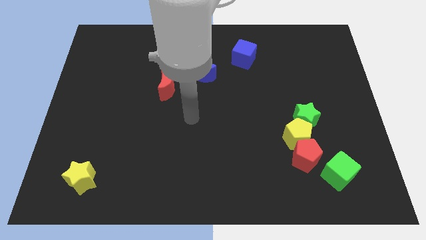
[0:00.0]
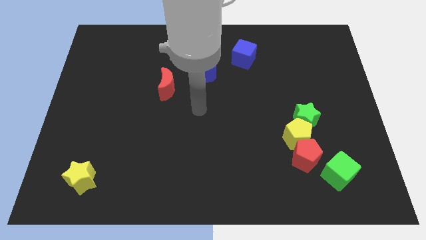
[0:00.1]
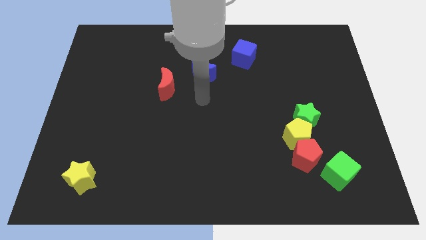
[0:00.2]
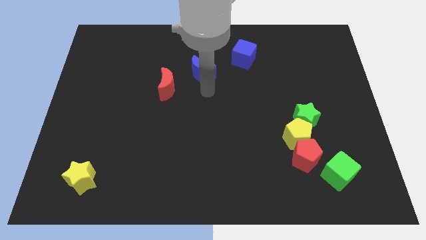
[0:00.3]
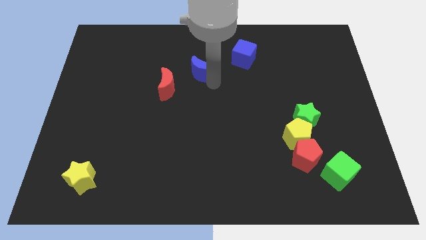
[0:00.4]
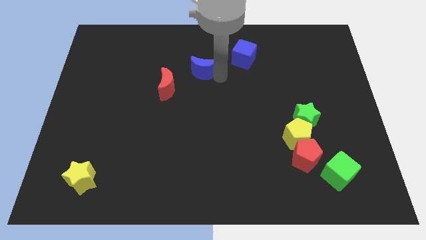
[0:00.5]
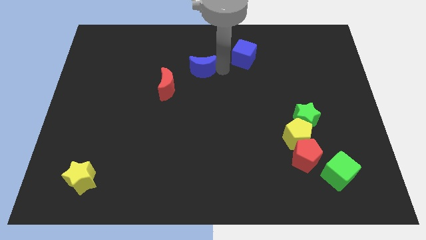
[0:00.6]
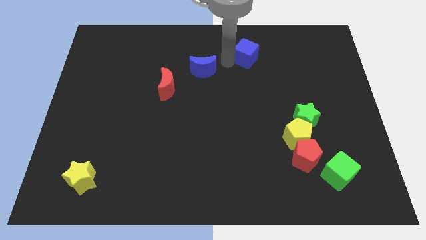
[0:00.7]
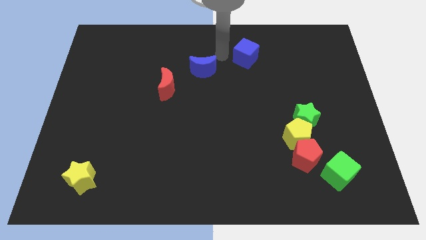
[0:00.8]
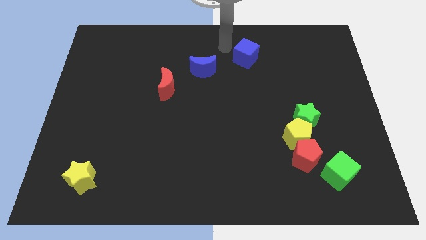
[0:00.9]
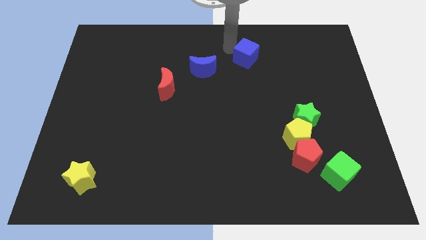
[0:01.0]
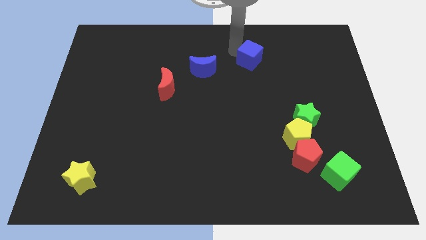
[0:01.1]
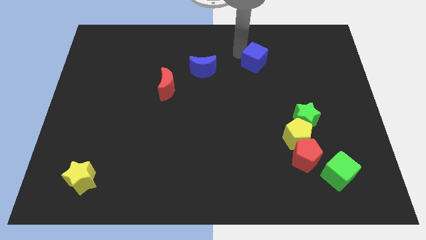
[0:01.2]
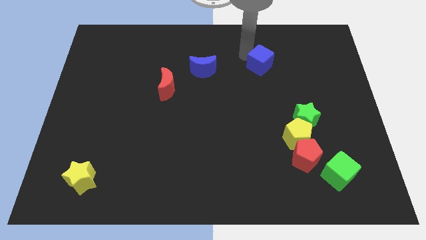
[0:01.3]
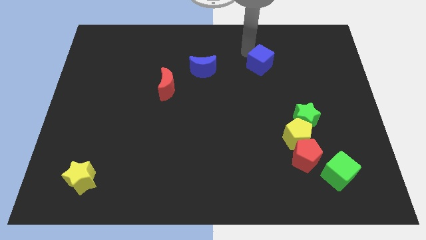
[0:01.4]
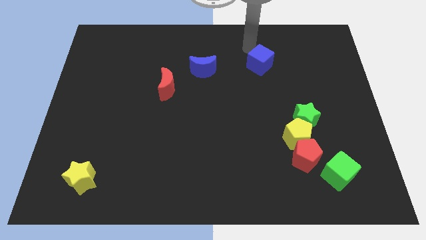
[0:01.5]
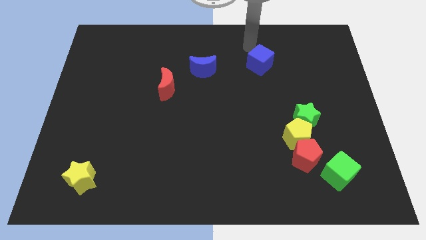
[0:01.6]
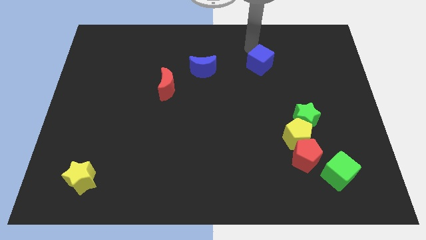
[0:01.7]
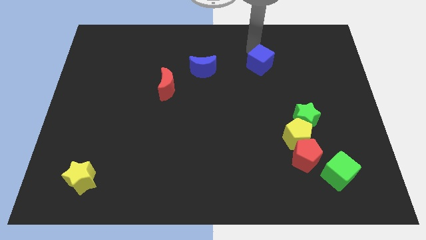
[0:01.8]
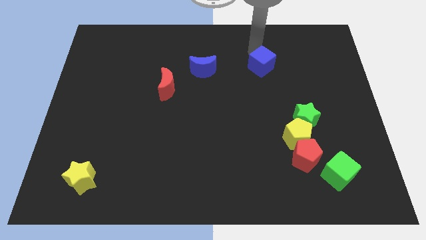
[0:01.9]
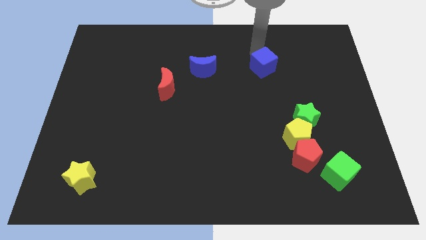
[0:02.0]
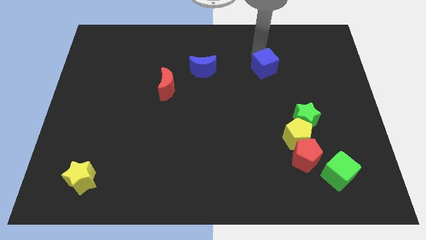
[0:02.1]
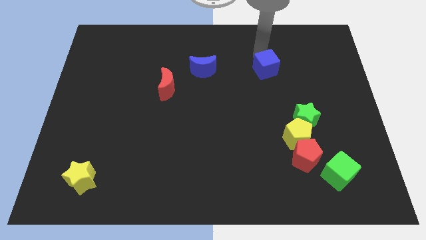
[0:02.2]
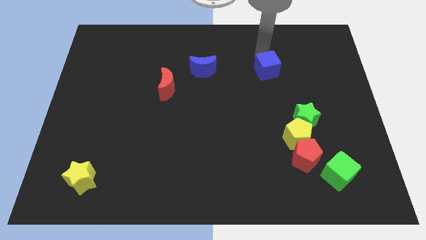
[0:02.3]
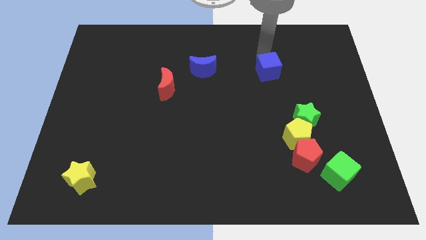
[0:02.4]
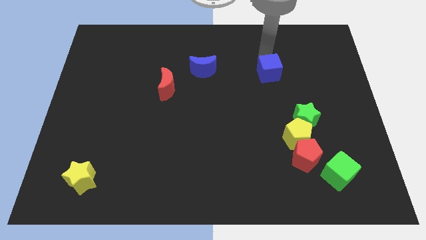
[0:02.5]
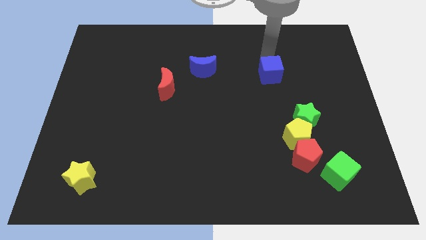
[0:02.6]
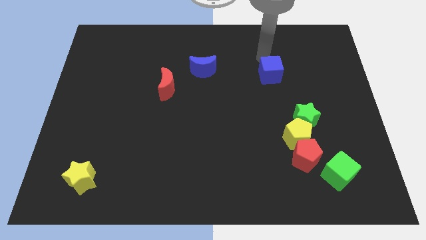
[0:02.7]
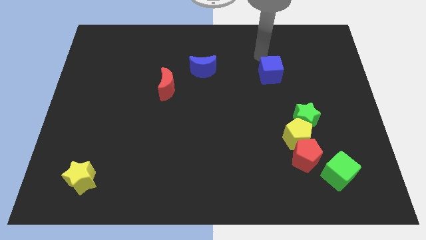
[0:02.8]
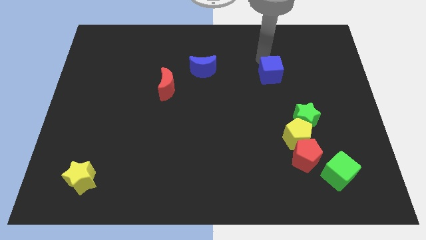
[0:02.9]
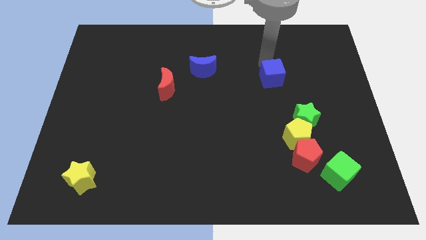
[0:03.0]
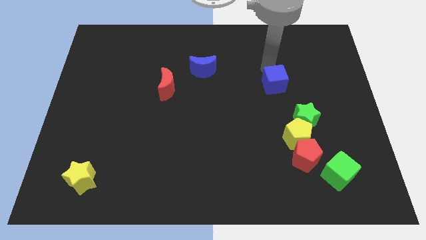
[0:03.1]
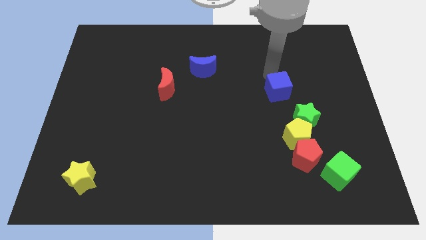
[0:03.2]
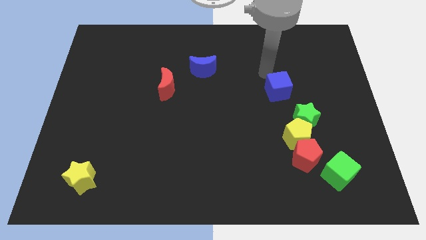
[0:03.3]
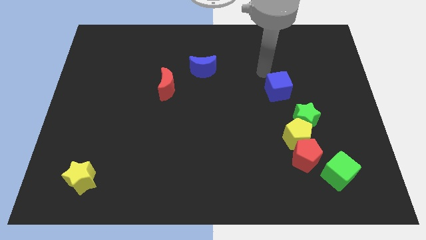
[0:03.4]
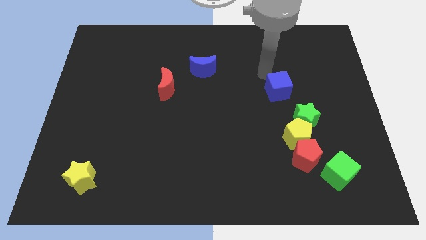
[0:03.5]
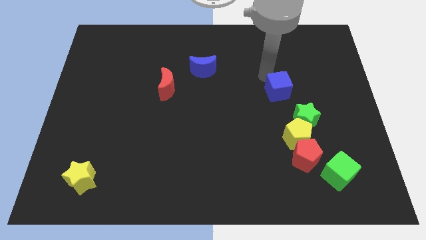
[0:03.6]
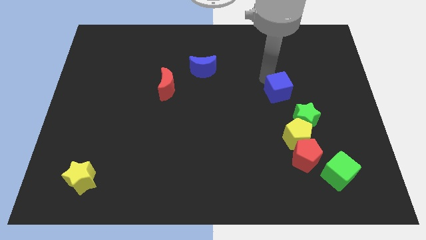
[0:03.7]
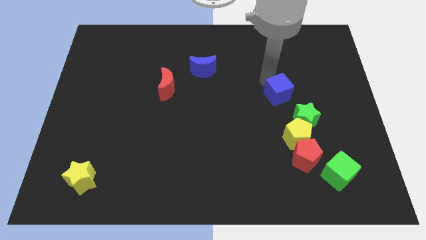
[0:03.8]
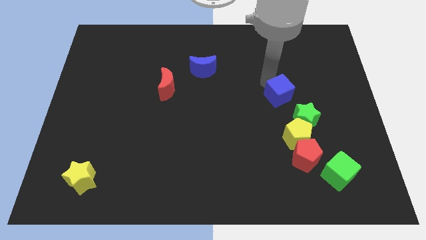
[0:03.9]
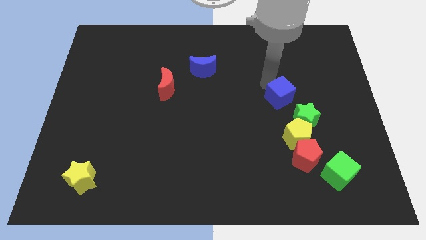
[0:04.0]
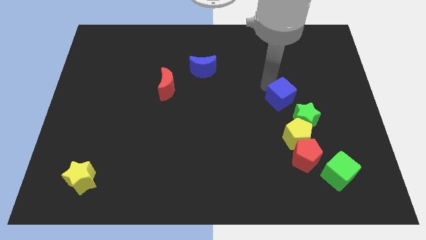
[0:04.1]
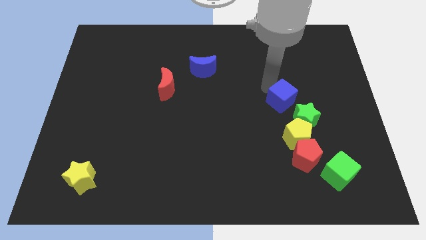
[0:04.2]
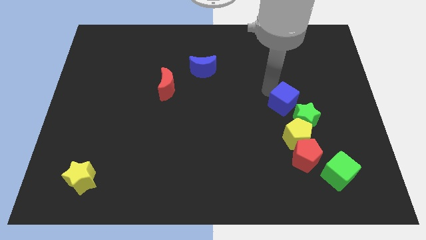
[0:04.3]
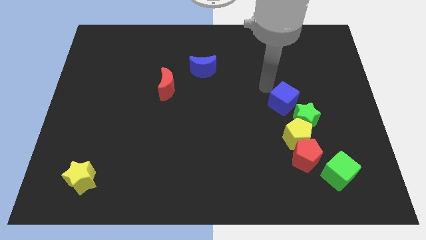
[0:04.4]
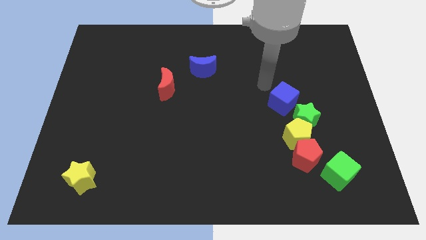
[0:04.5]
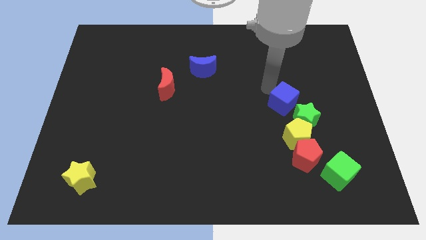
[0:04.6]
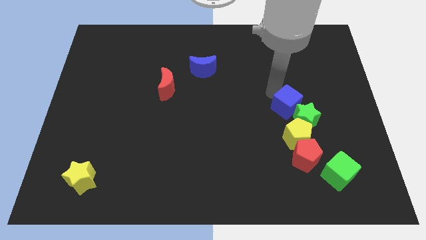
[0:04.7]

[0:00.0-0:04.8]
put the blue cube next to the green star

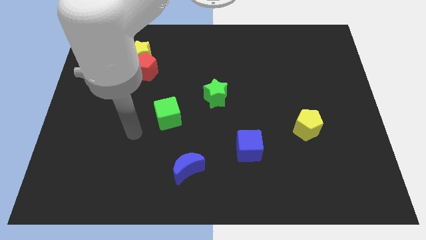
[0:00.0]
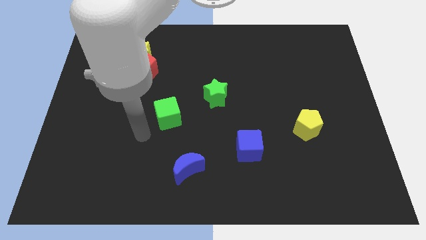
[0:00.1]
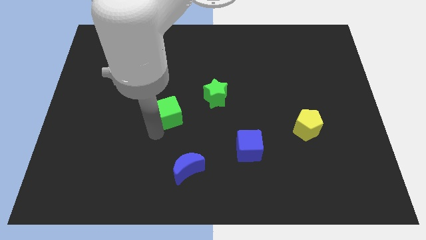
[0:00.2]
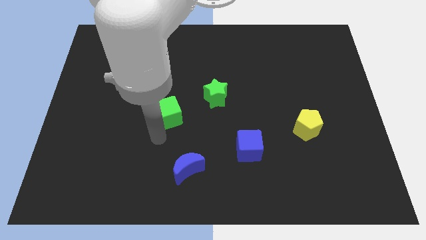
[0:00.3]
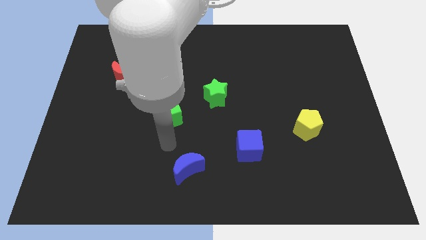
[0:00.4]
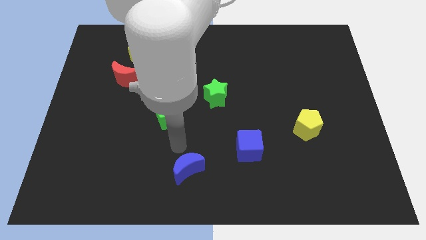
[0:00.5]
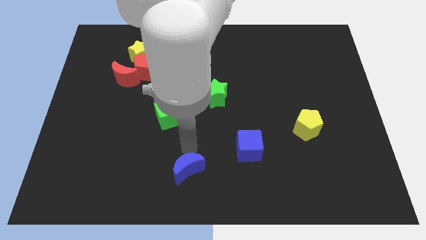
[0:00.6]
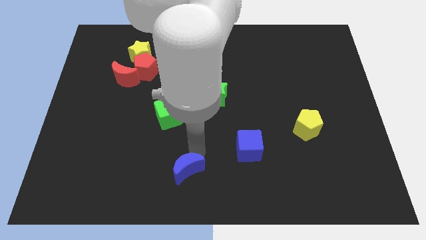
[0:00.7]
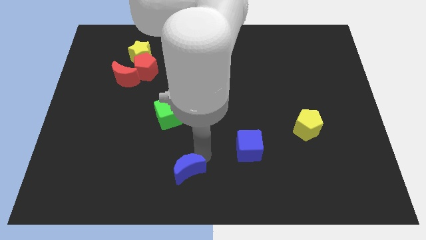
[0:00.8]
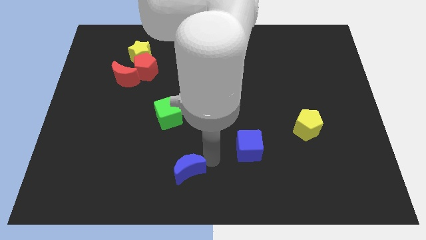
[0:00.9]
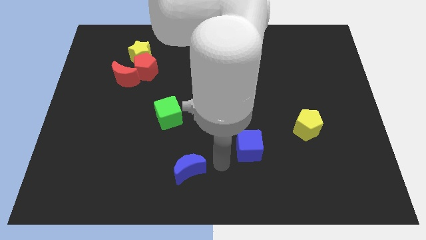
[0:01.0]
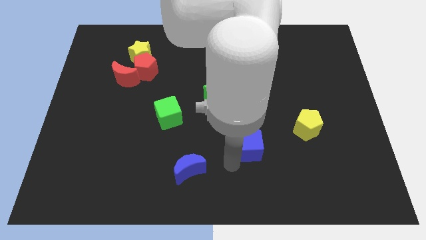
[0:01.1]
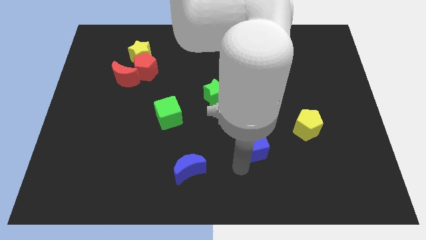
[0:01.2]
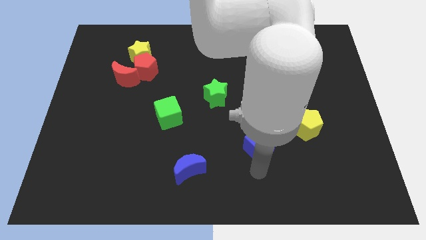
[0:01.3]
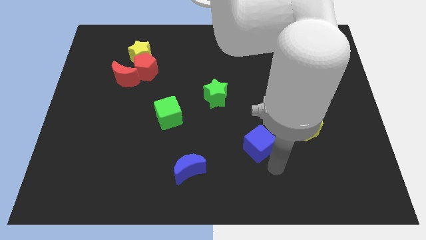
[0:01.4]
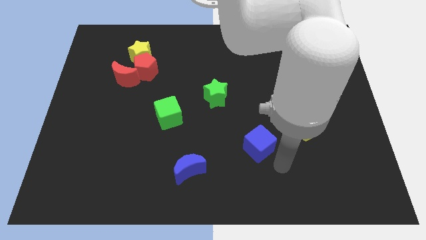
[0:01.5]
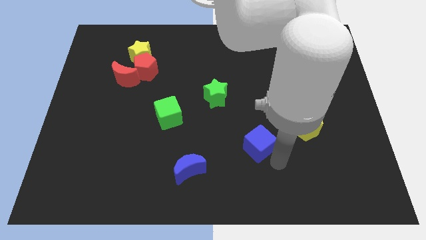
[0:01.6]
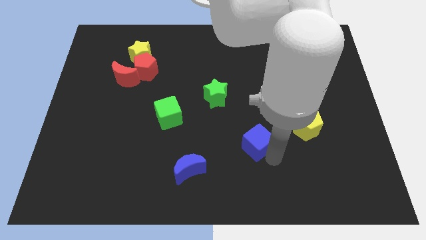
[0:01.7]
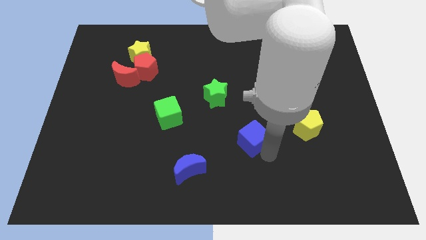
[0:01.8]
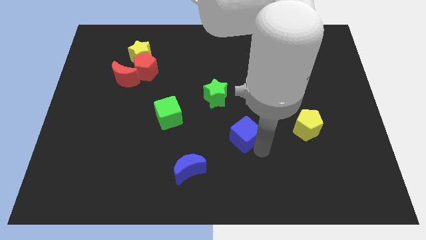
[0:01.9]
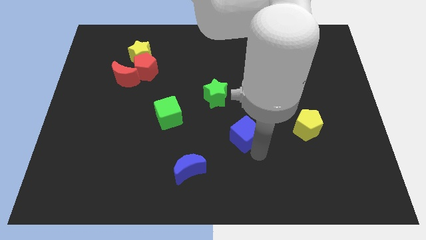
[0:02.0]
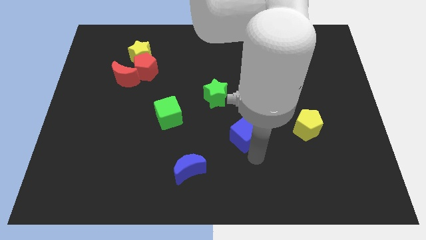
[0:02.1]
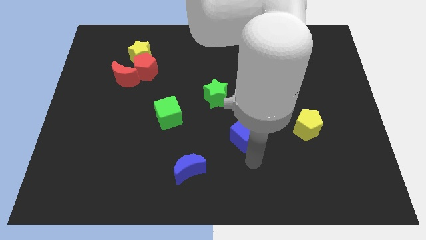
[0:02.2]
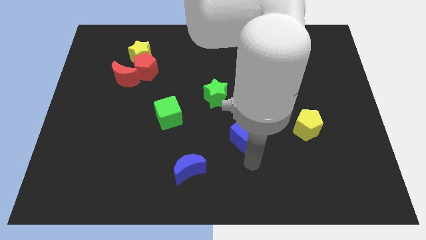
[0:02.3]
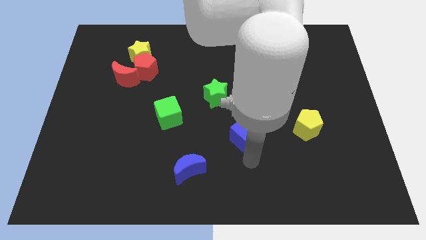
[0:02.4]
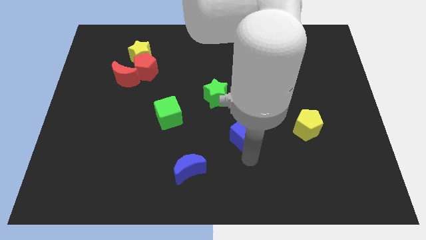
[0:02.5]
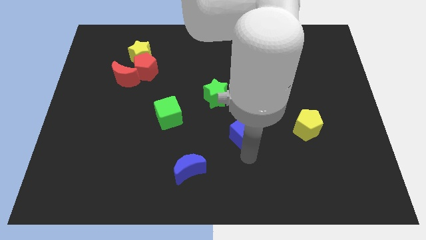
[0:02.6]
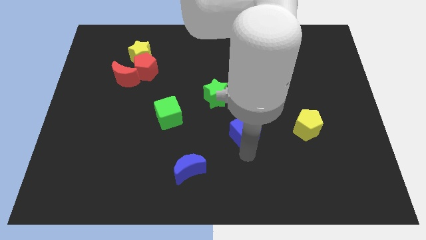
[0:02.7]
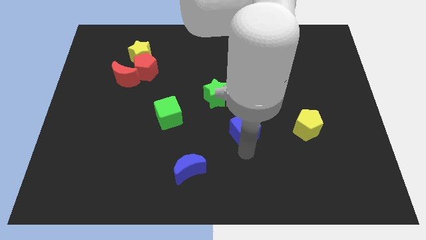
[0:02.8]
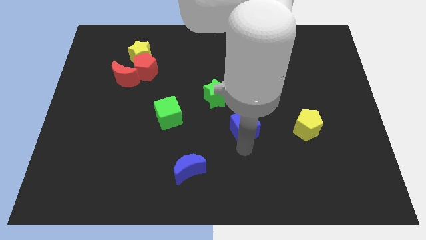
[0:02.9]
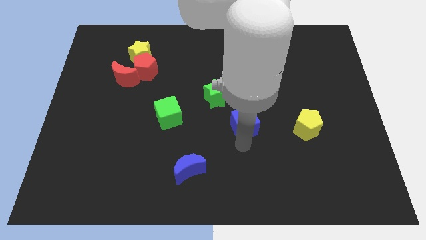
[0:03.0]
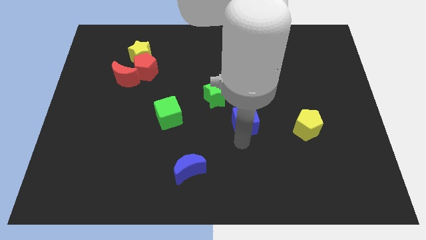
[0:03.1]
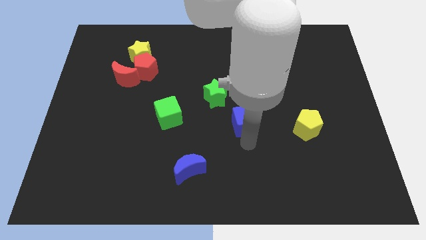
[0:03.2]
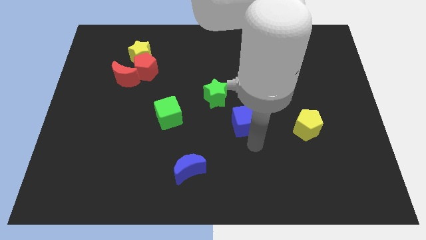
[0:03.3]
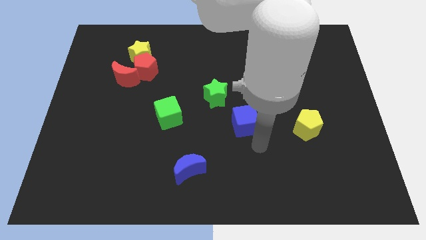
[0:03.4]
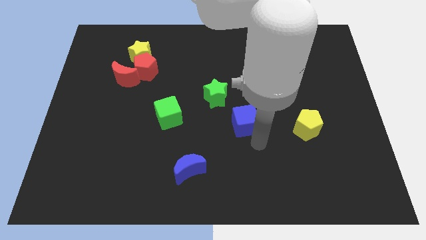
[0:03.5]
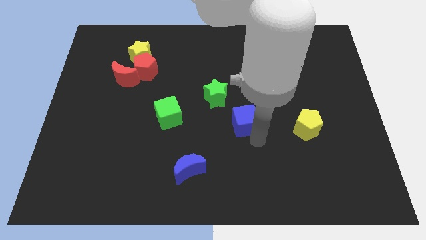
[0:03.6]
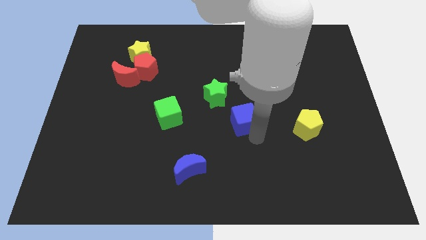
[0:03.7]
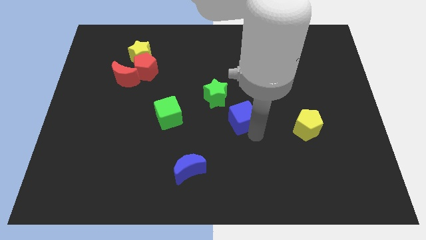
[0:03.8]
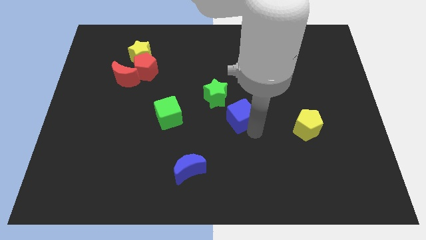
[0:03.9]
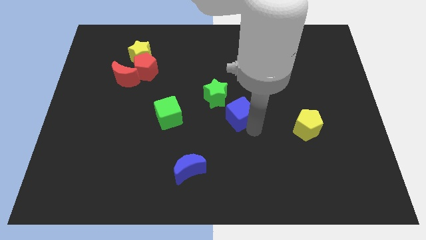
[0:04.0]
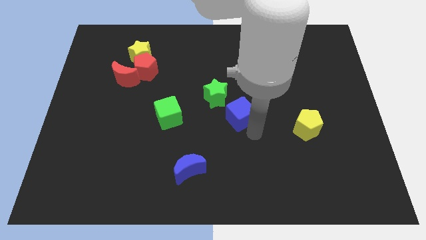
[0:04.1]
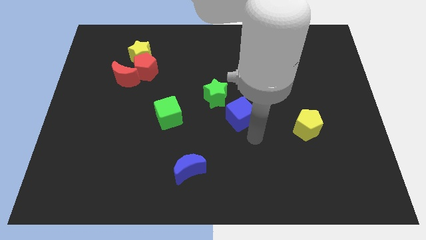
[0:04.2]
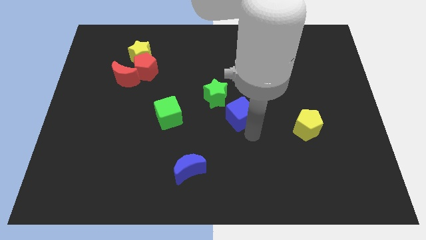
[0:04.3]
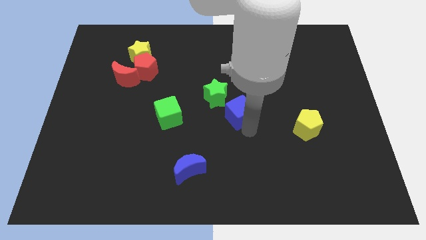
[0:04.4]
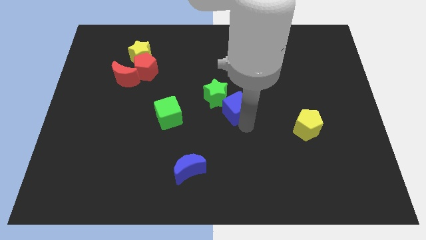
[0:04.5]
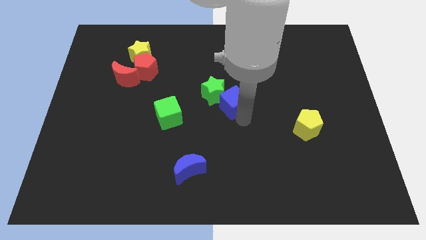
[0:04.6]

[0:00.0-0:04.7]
slide the blue cube next to the green star
